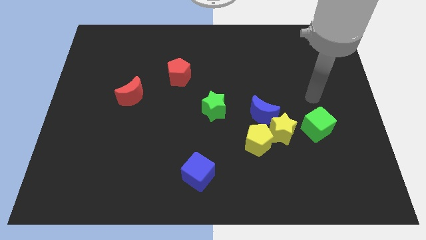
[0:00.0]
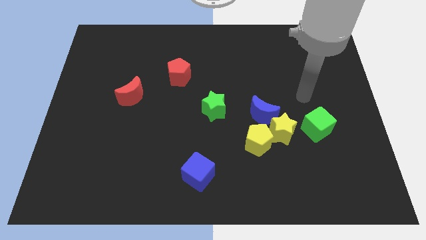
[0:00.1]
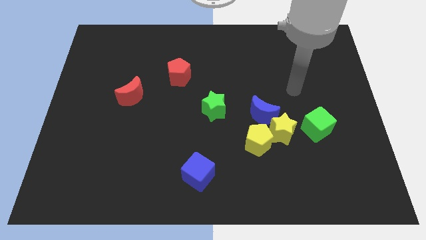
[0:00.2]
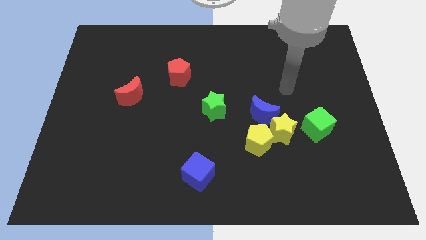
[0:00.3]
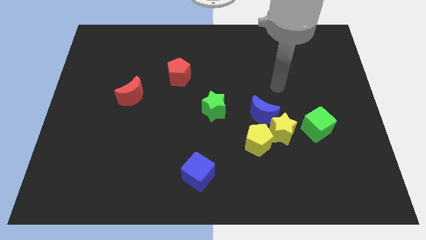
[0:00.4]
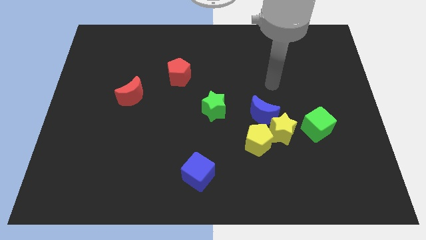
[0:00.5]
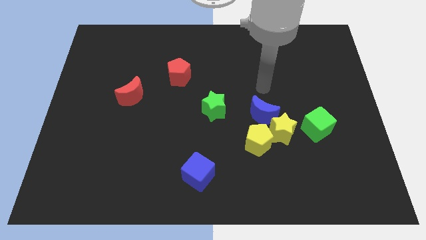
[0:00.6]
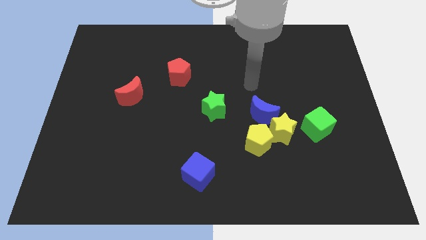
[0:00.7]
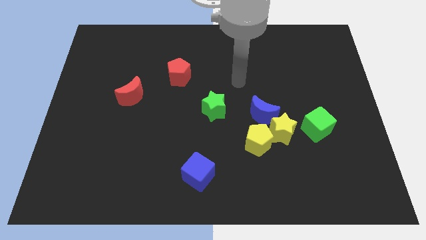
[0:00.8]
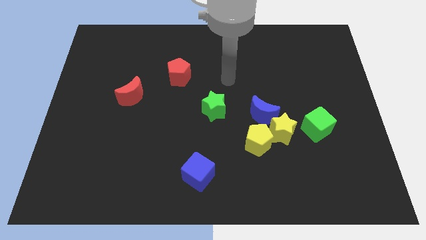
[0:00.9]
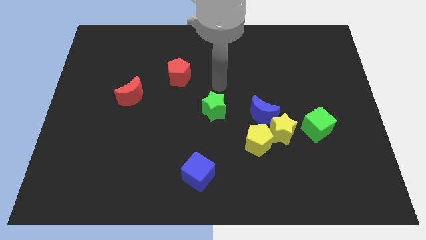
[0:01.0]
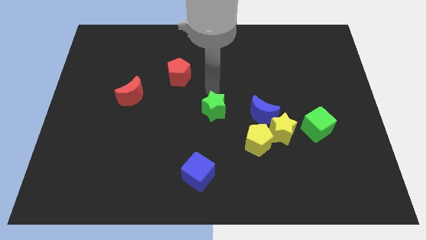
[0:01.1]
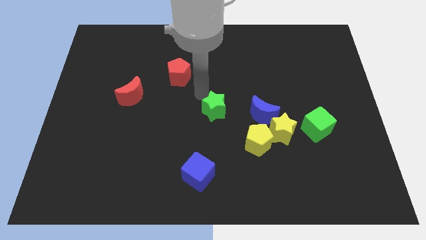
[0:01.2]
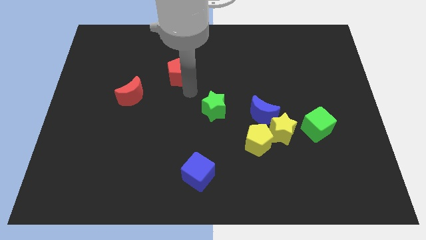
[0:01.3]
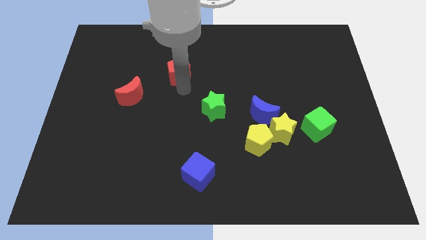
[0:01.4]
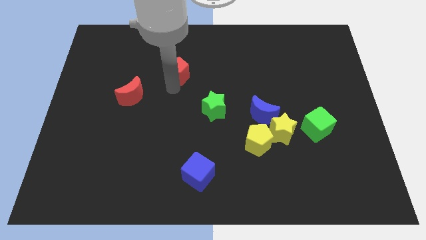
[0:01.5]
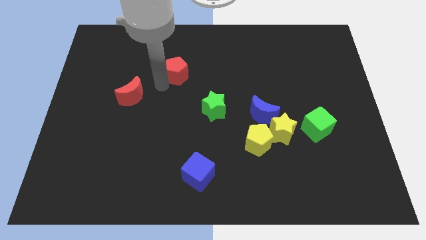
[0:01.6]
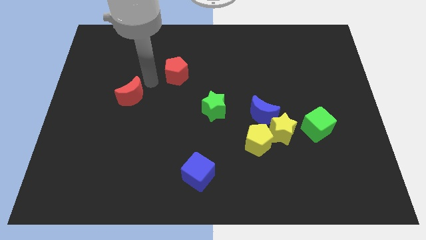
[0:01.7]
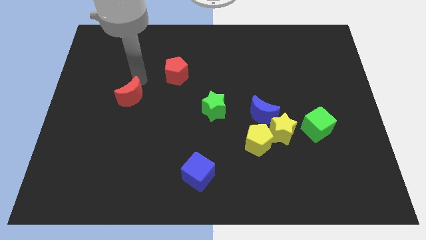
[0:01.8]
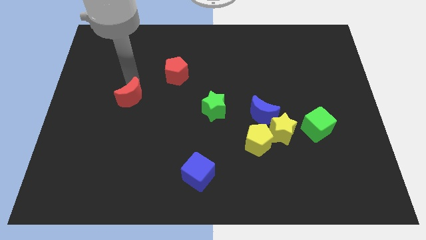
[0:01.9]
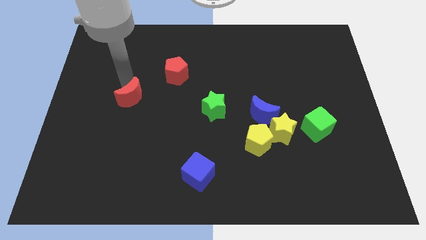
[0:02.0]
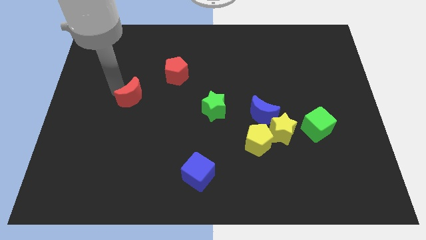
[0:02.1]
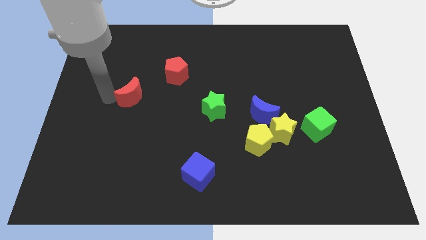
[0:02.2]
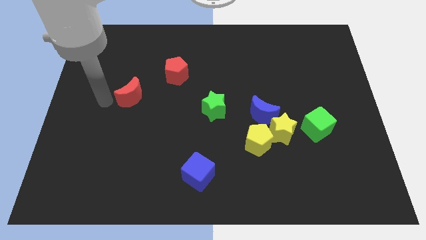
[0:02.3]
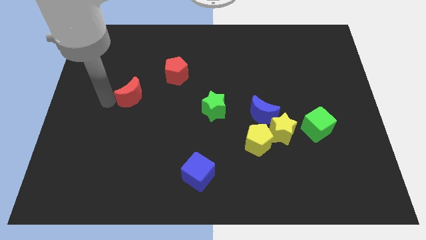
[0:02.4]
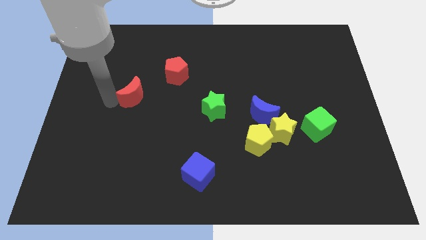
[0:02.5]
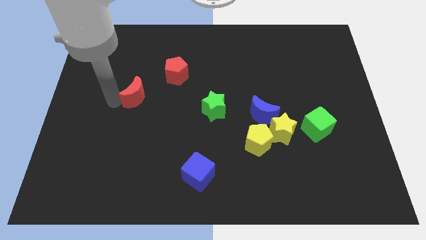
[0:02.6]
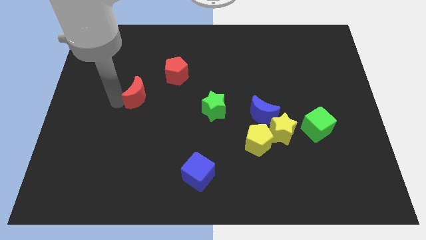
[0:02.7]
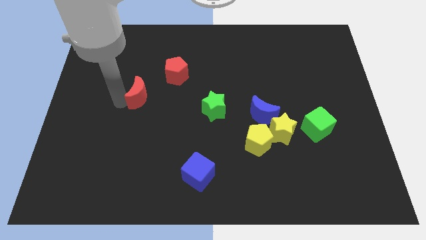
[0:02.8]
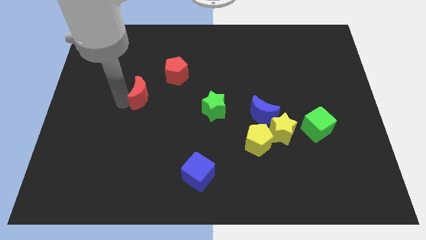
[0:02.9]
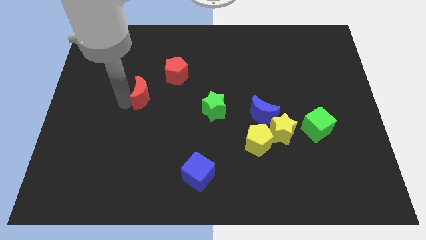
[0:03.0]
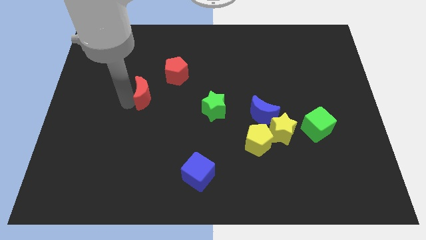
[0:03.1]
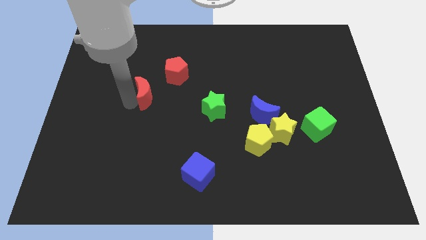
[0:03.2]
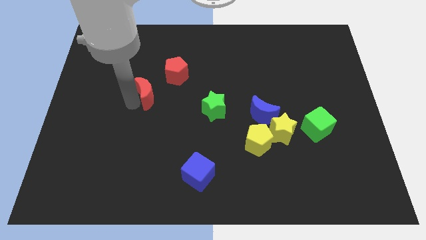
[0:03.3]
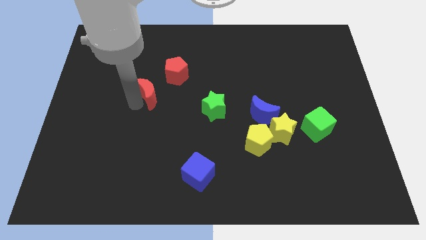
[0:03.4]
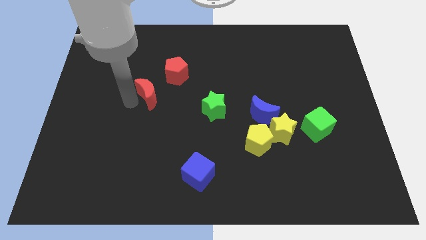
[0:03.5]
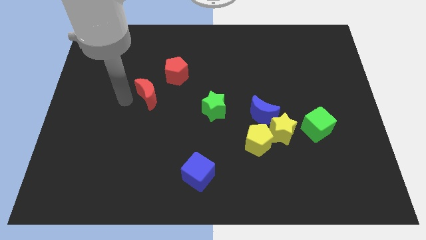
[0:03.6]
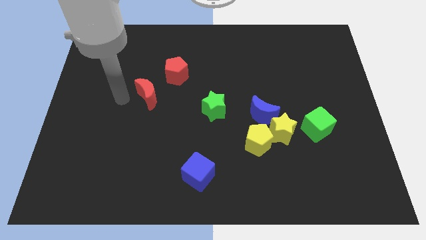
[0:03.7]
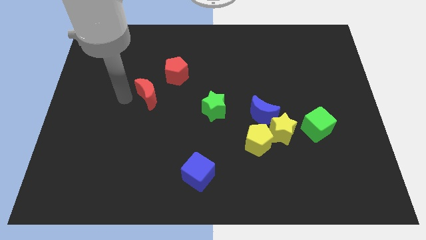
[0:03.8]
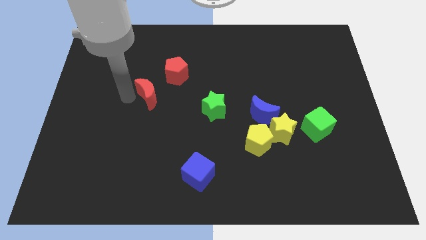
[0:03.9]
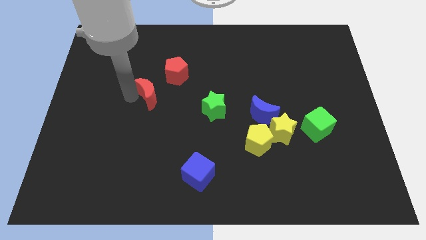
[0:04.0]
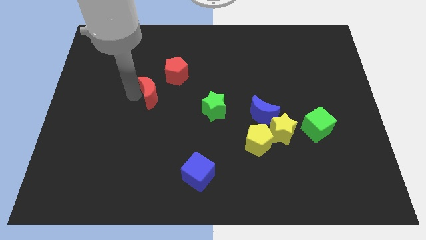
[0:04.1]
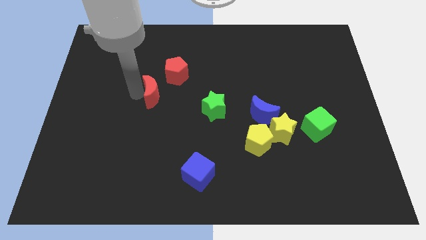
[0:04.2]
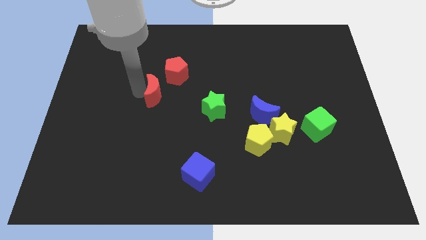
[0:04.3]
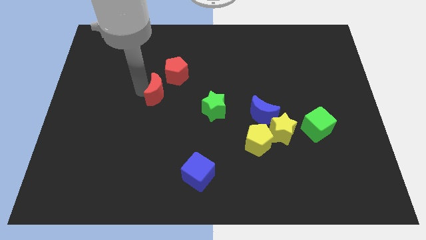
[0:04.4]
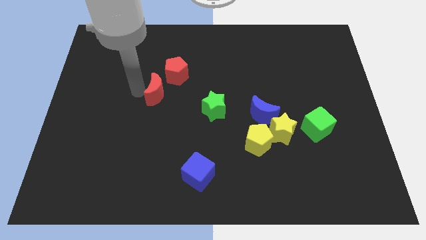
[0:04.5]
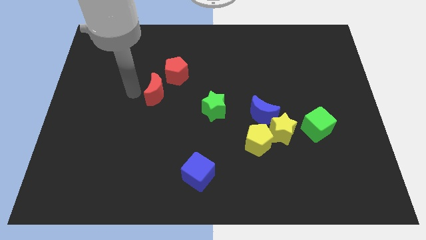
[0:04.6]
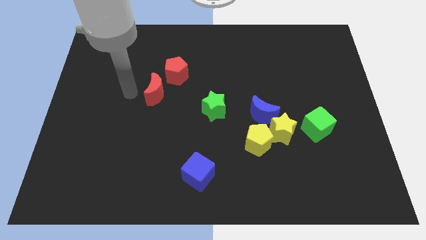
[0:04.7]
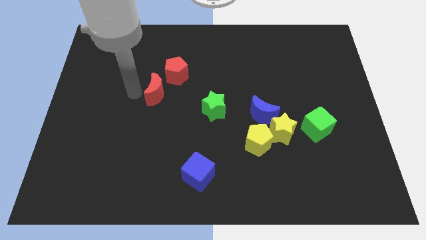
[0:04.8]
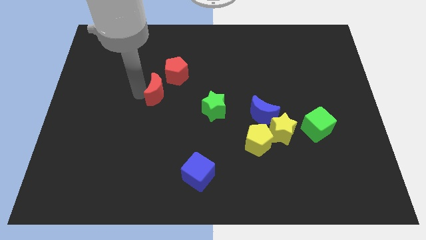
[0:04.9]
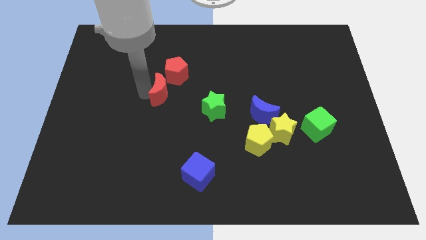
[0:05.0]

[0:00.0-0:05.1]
move the red moon somewhat right

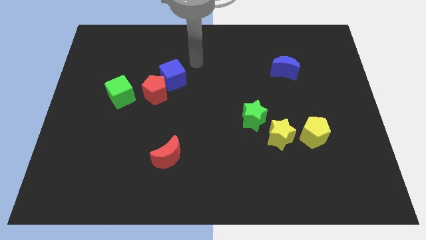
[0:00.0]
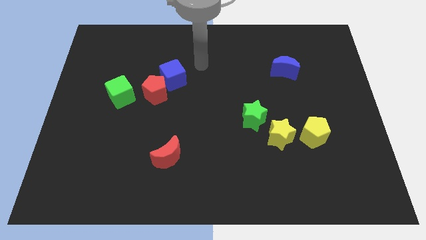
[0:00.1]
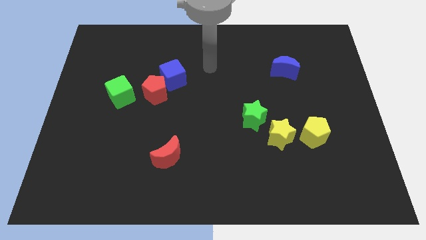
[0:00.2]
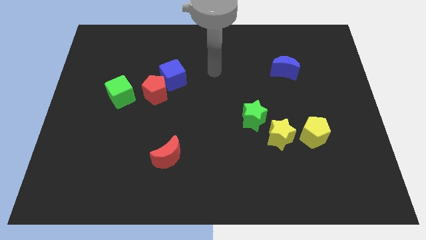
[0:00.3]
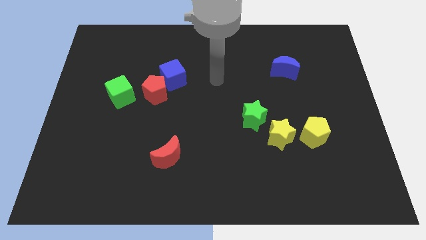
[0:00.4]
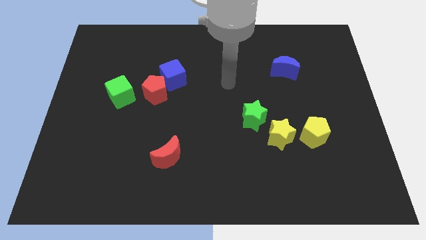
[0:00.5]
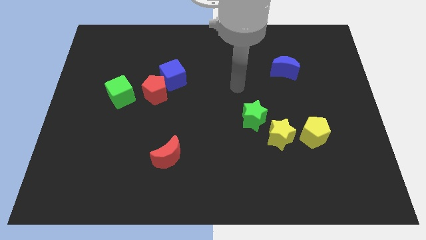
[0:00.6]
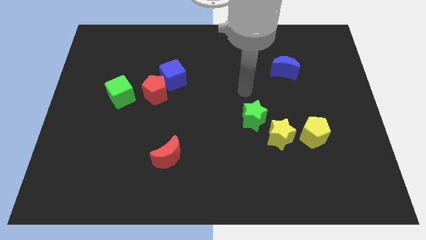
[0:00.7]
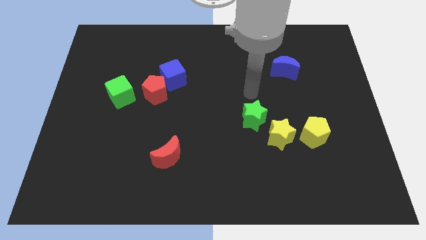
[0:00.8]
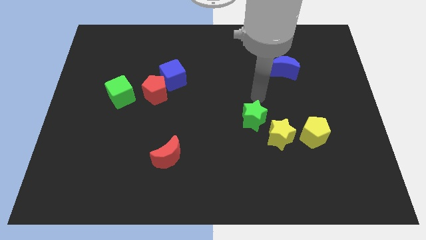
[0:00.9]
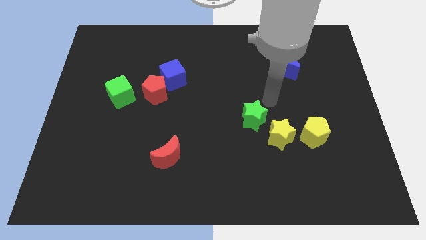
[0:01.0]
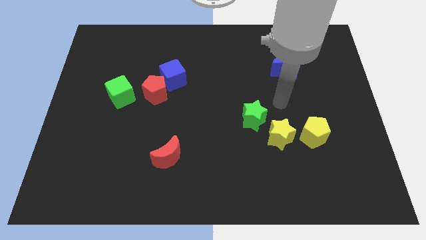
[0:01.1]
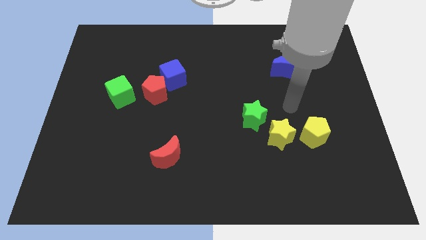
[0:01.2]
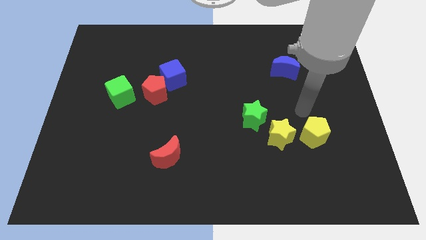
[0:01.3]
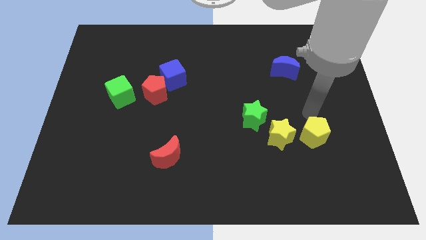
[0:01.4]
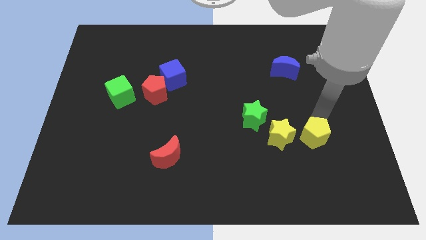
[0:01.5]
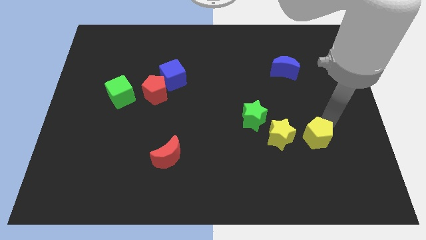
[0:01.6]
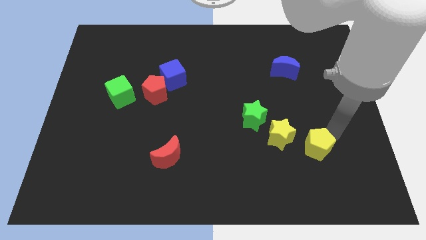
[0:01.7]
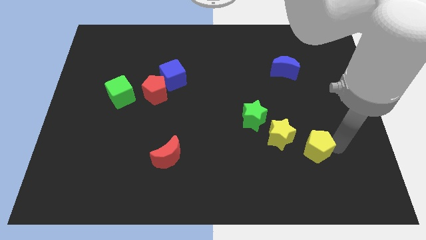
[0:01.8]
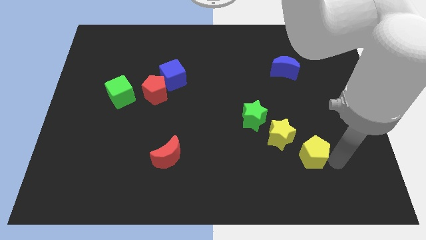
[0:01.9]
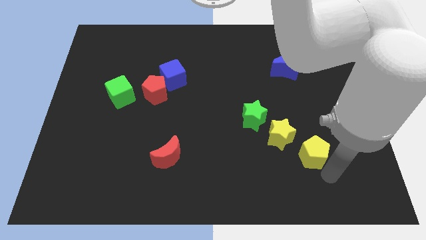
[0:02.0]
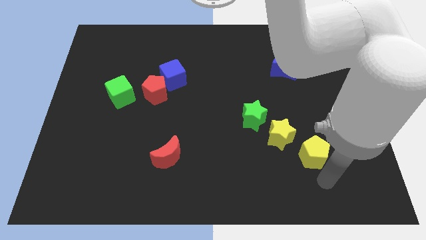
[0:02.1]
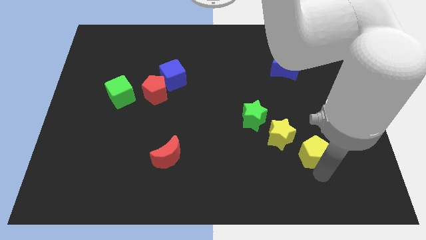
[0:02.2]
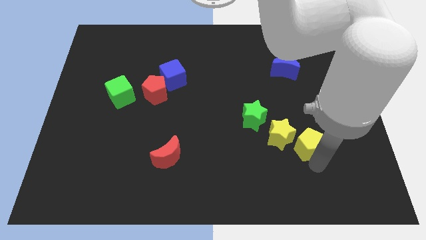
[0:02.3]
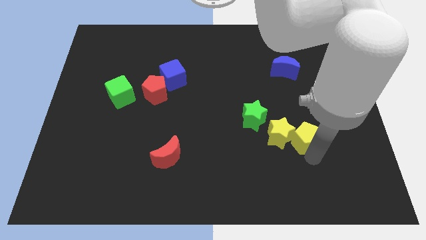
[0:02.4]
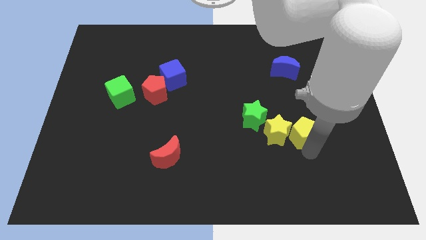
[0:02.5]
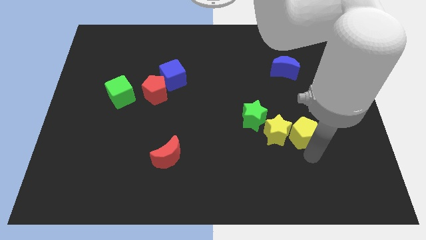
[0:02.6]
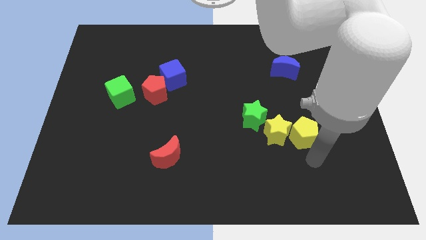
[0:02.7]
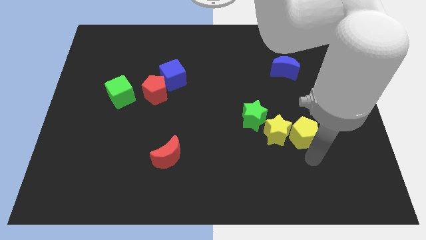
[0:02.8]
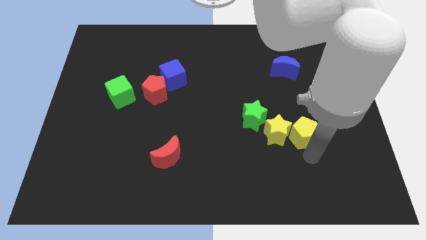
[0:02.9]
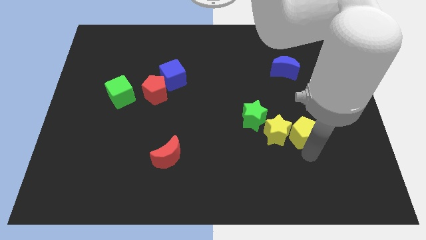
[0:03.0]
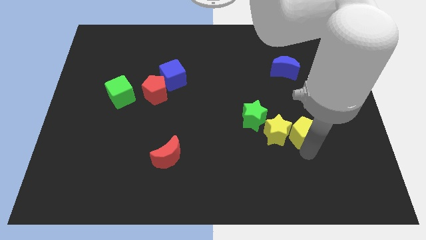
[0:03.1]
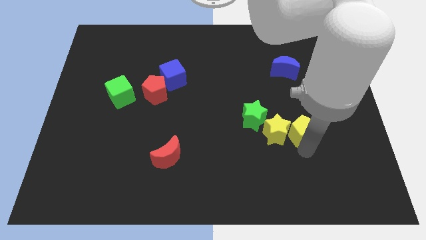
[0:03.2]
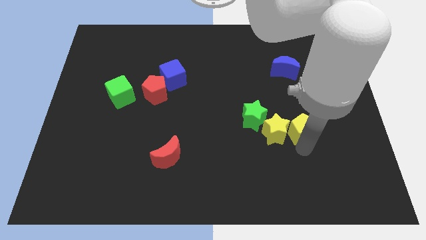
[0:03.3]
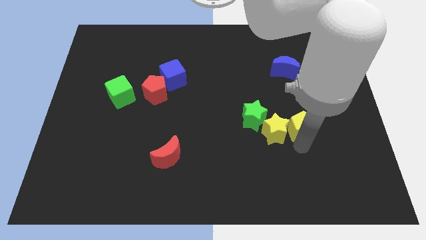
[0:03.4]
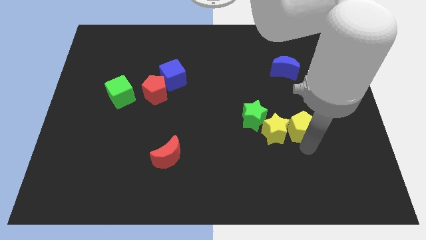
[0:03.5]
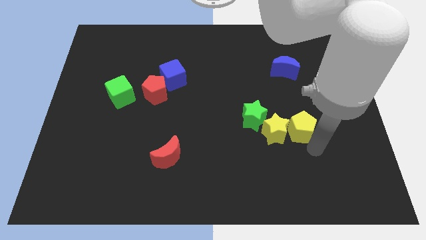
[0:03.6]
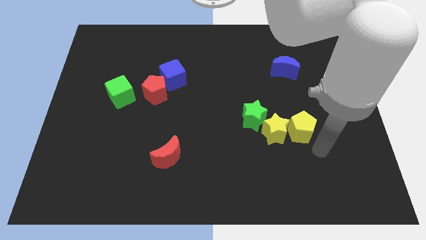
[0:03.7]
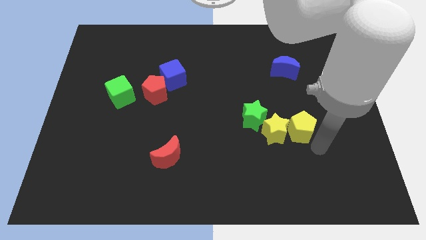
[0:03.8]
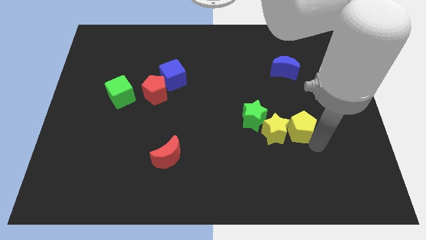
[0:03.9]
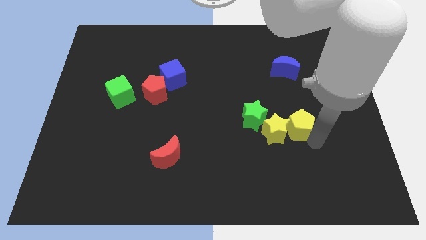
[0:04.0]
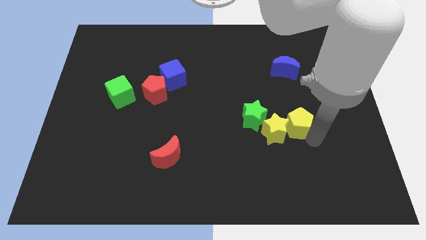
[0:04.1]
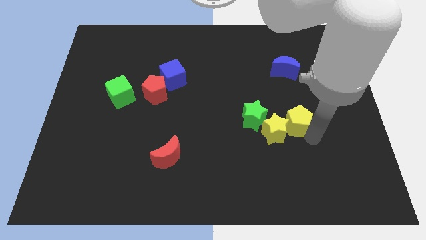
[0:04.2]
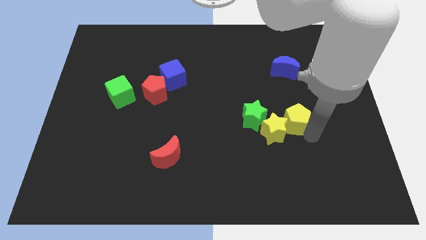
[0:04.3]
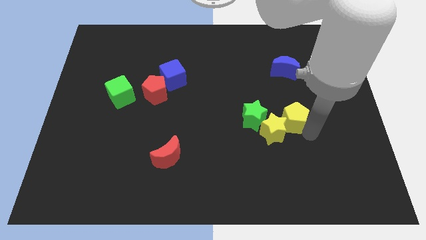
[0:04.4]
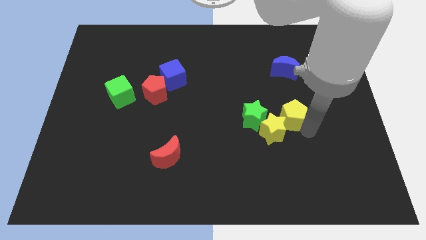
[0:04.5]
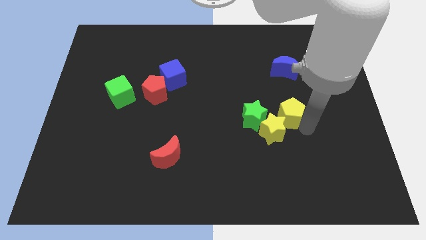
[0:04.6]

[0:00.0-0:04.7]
move the yellow pentagon up and left somewhat
